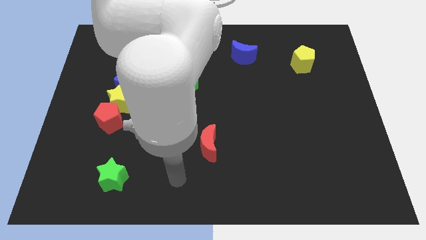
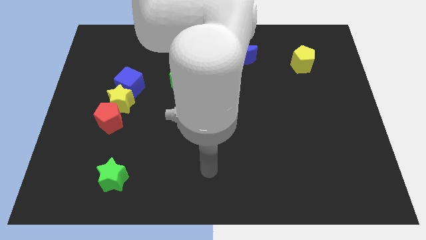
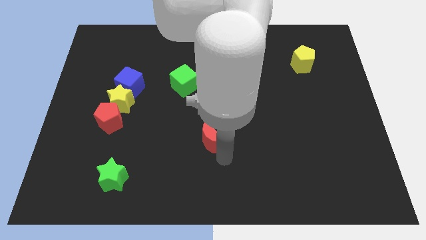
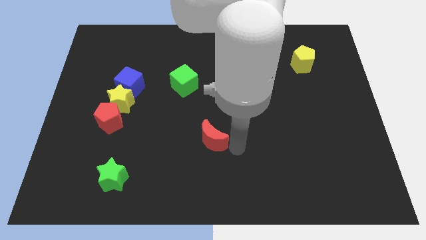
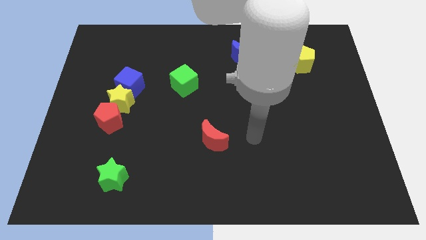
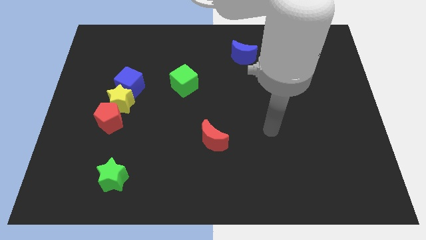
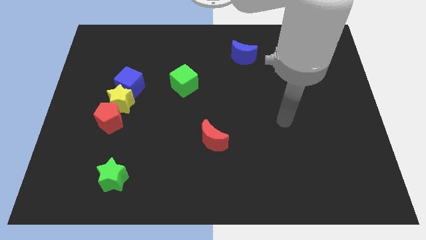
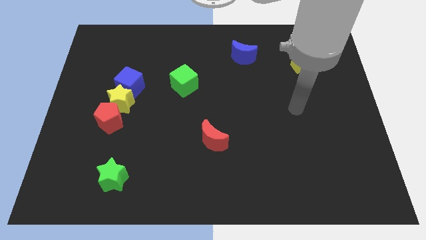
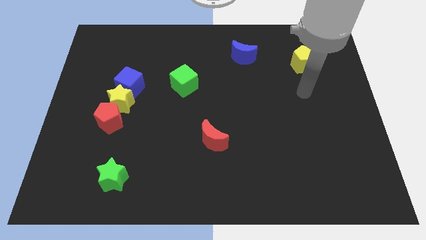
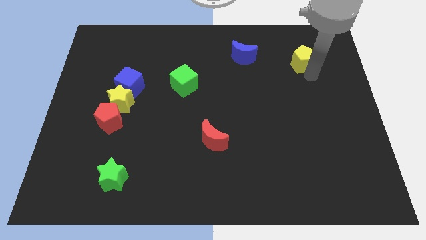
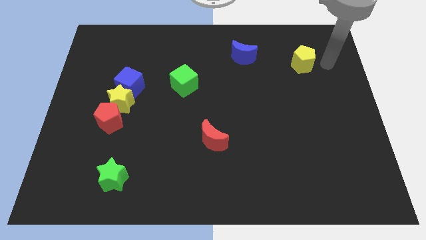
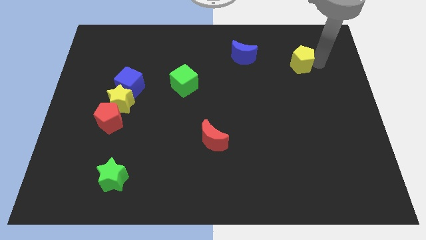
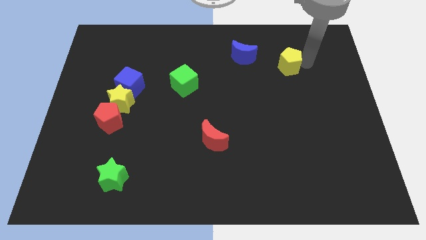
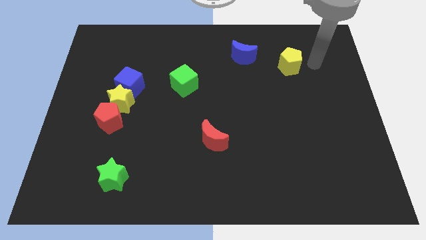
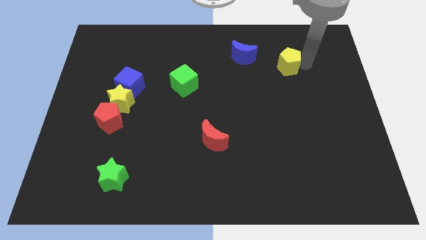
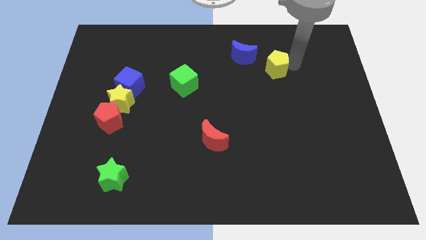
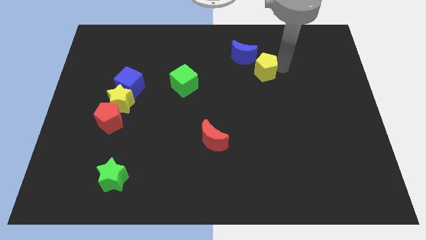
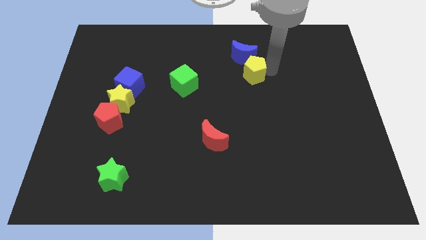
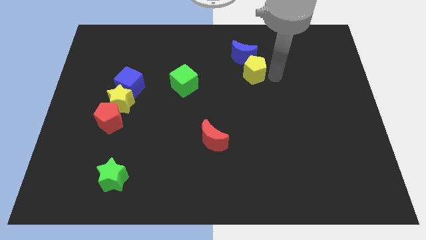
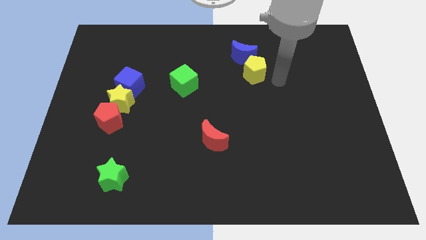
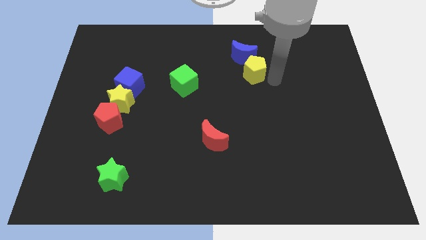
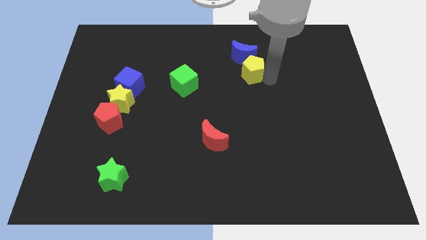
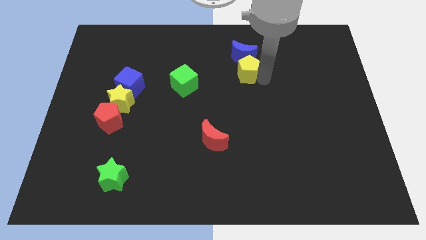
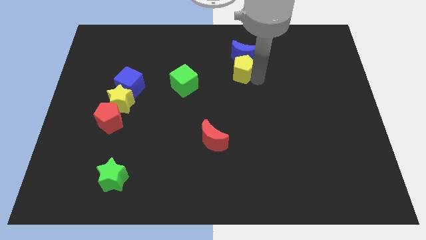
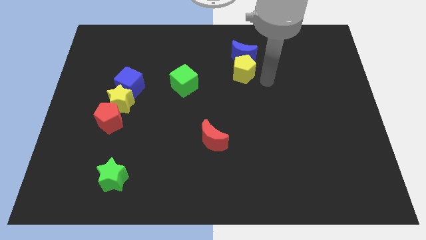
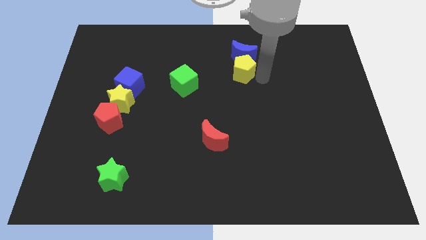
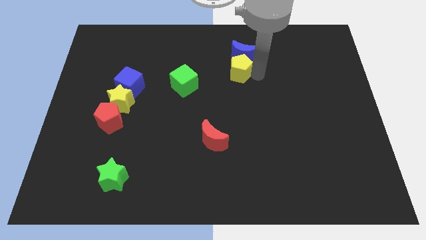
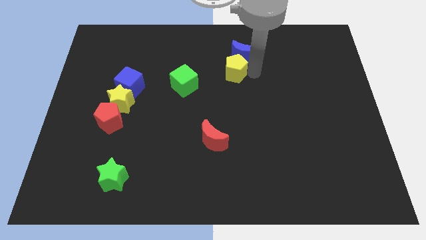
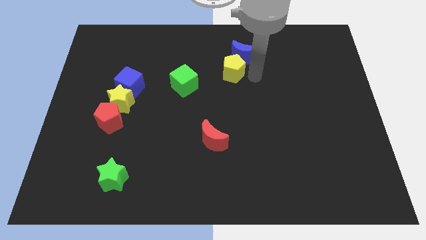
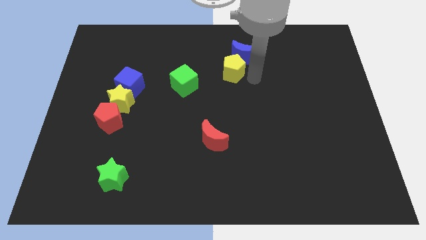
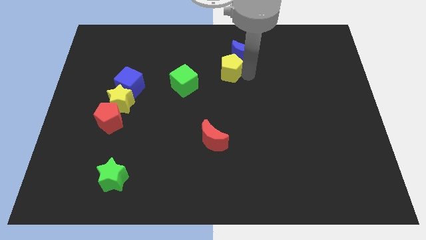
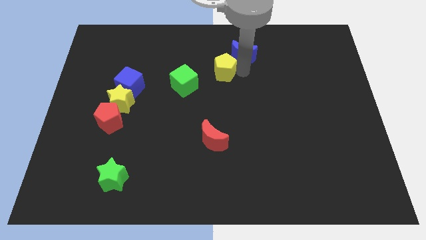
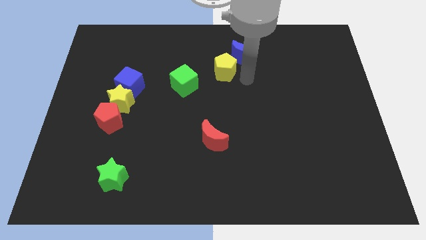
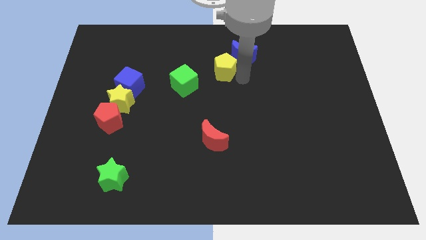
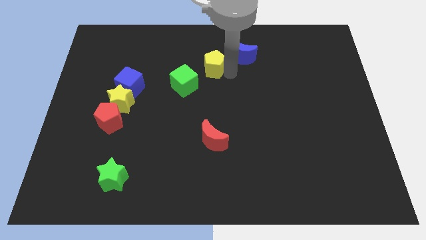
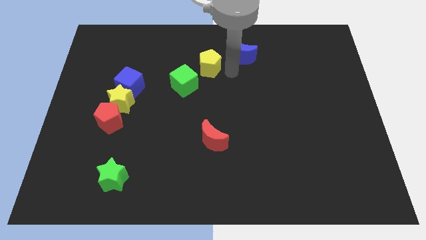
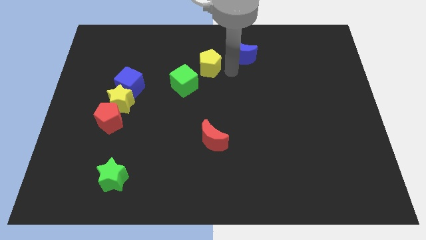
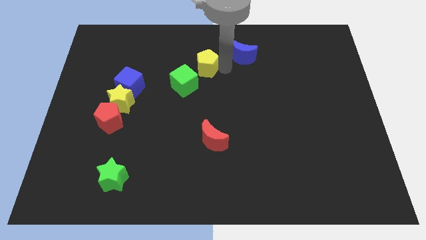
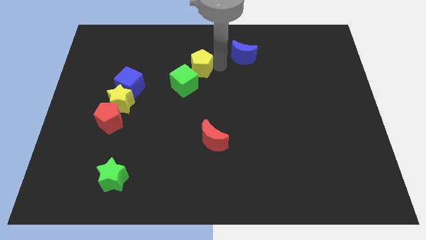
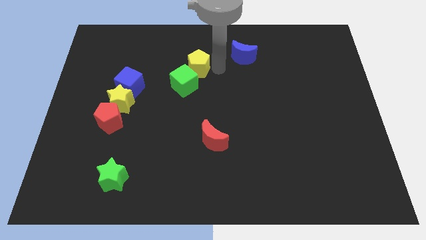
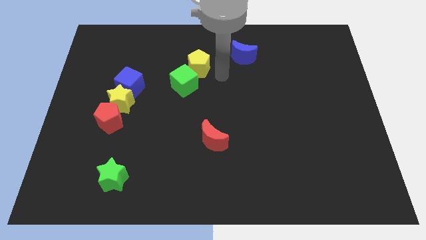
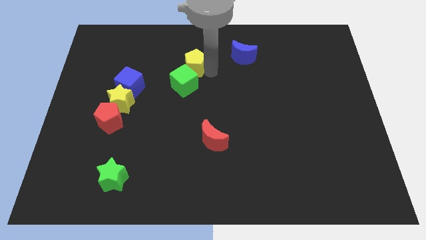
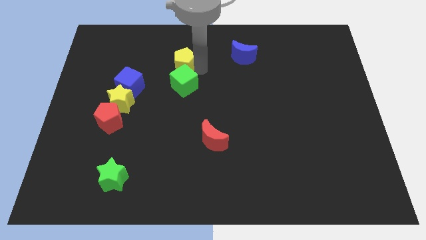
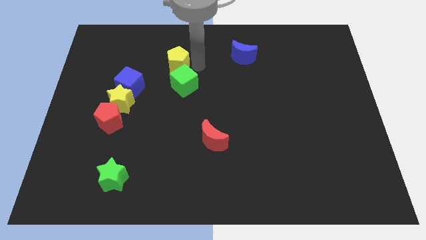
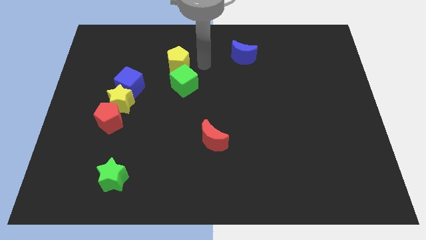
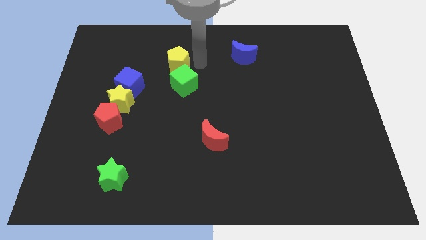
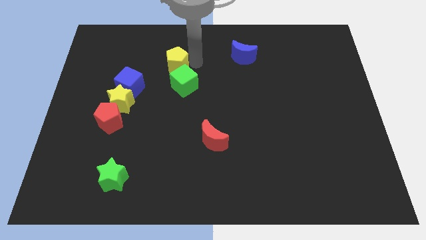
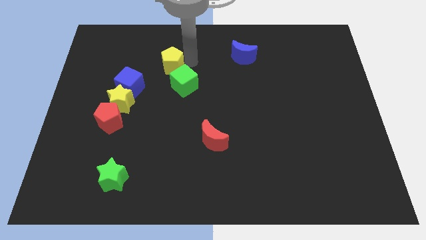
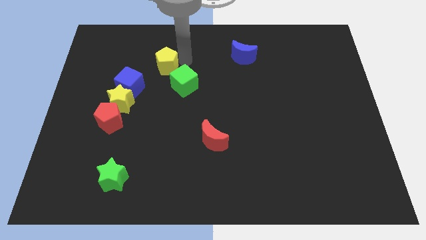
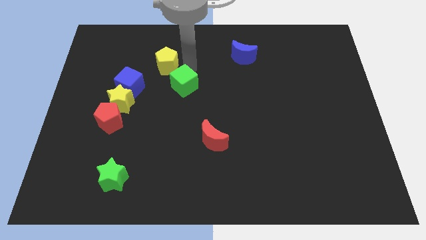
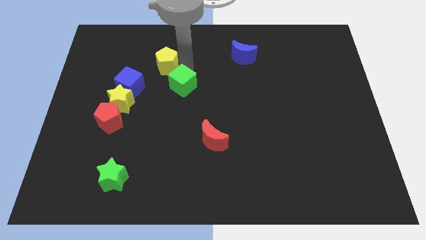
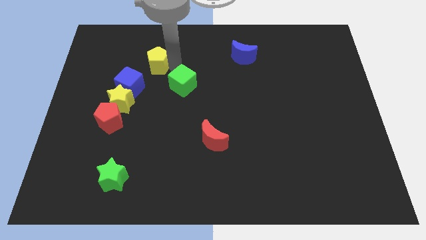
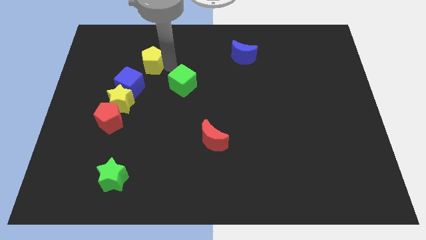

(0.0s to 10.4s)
put the yellow pentagon to the top side of the blue cube

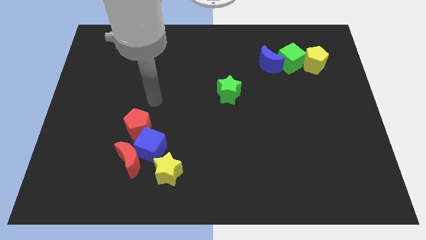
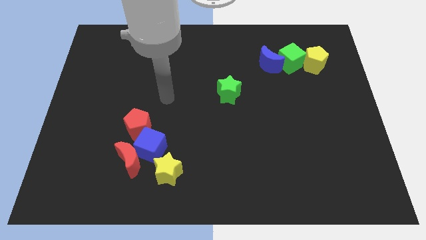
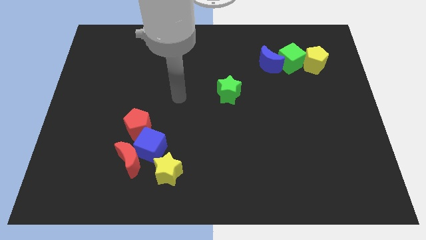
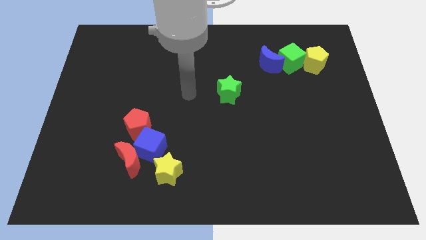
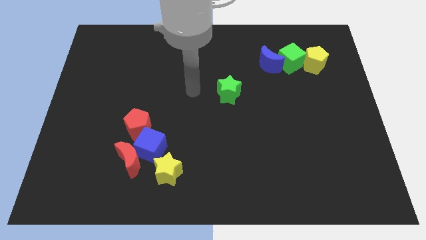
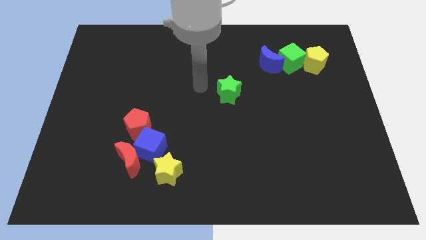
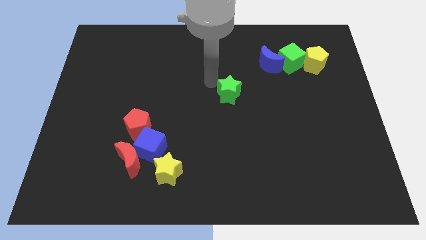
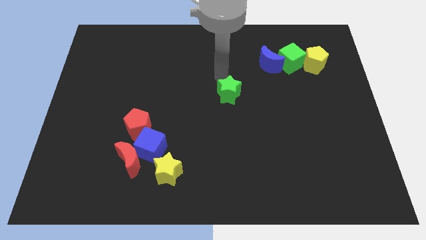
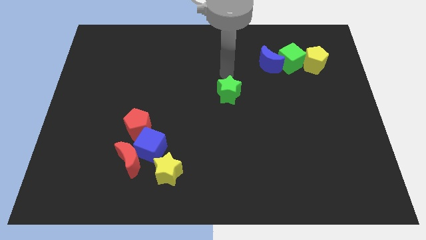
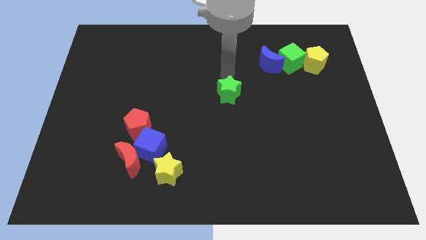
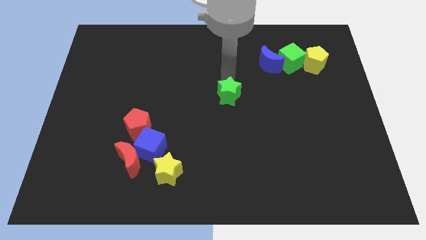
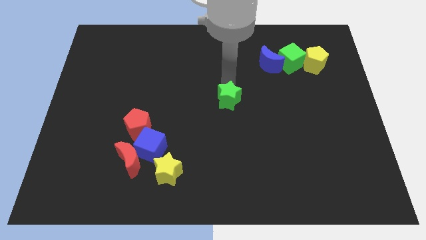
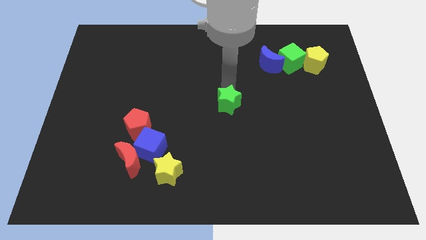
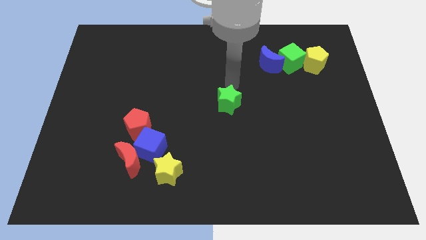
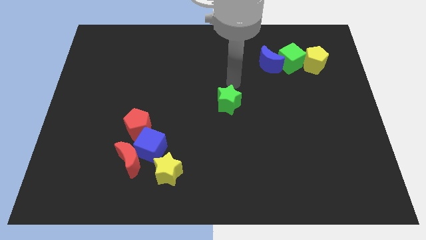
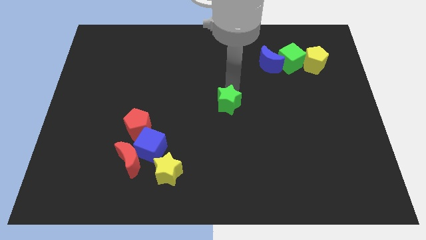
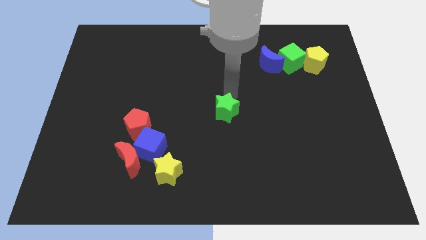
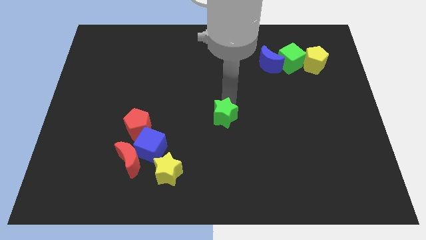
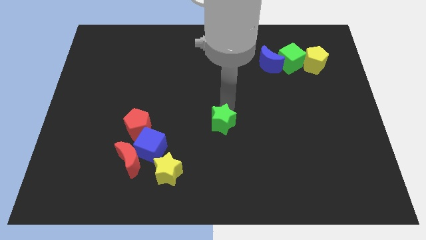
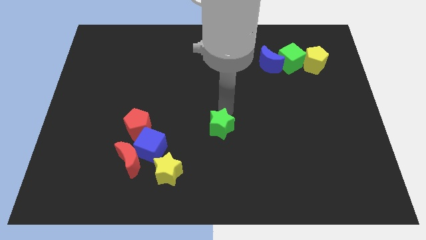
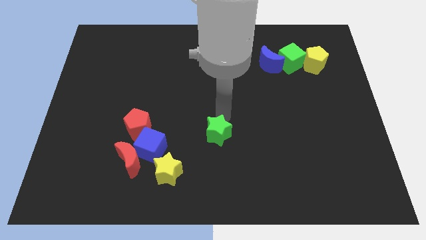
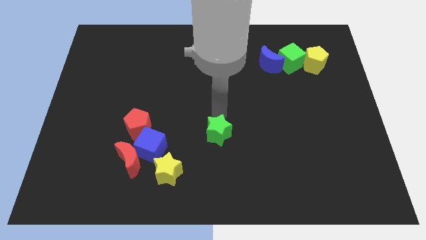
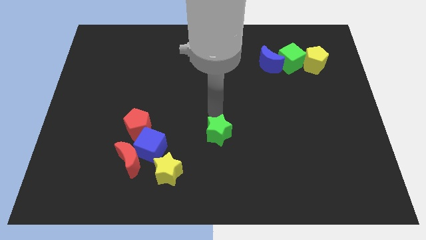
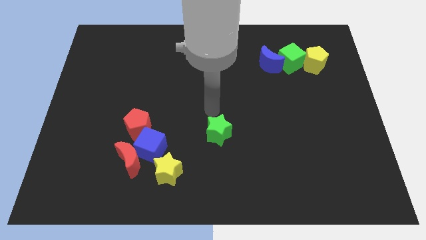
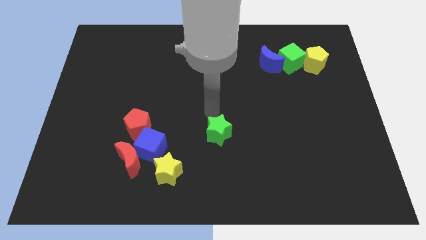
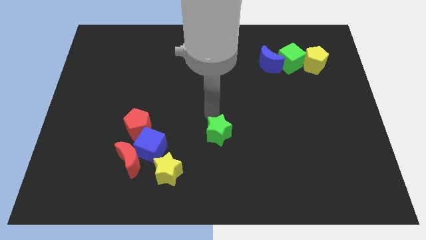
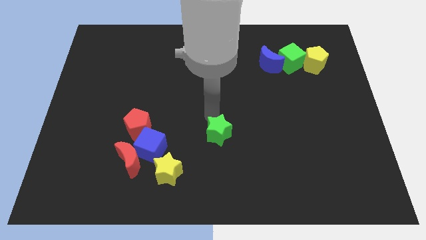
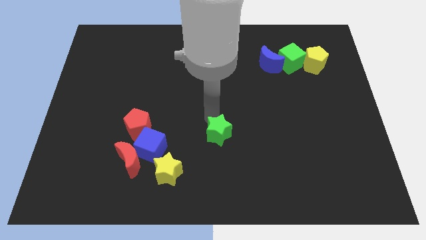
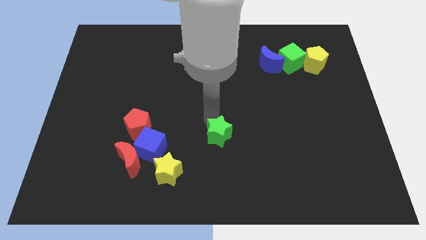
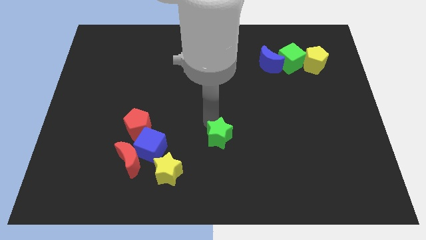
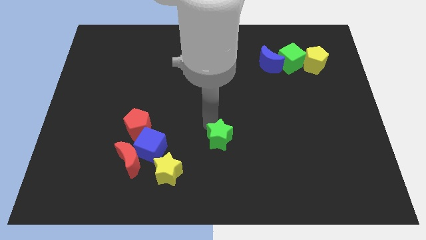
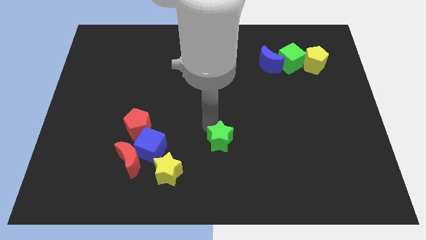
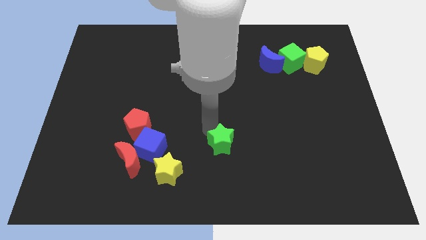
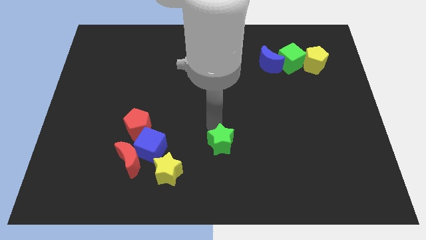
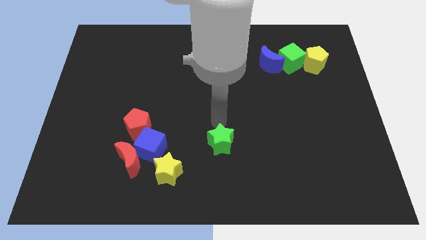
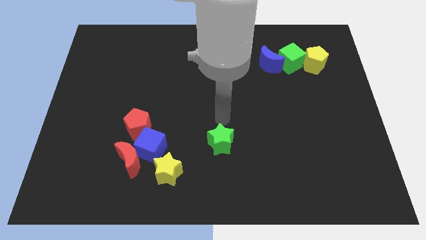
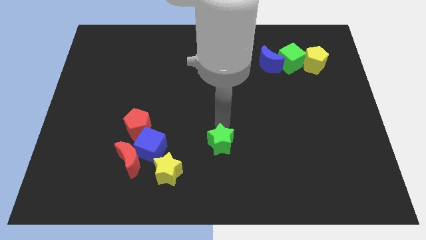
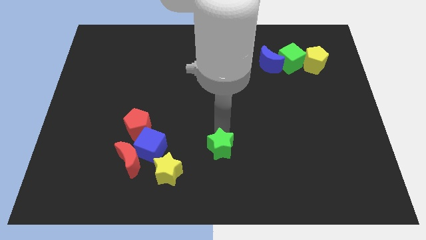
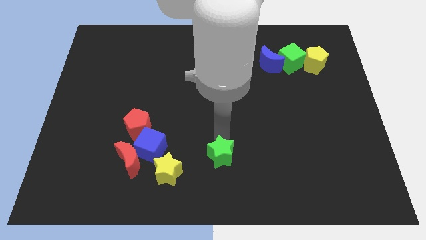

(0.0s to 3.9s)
push the green star to the right side of the yellow star
